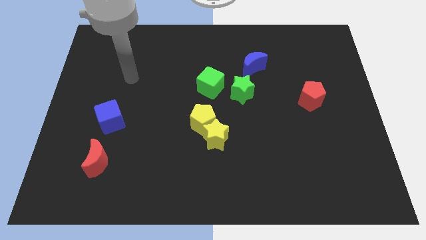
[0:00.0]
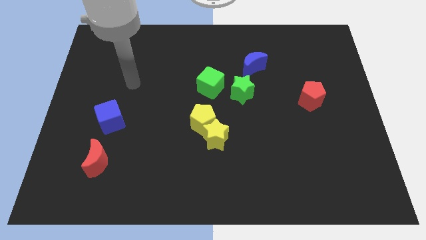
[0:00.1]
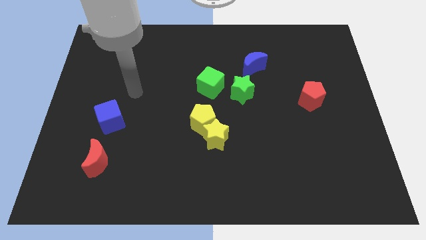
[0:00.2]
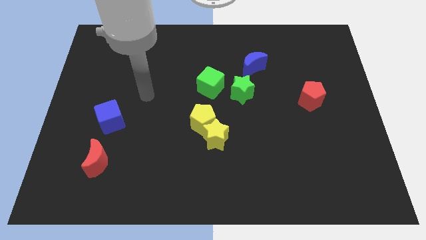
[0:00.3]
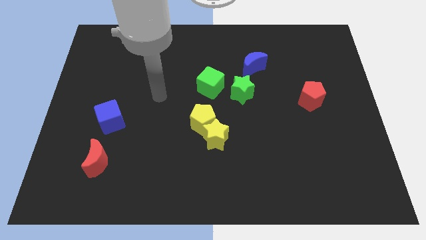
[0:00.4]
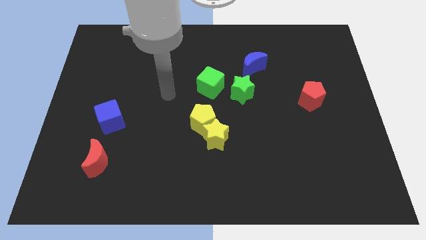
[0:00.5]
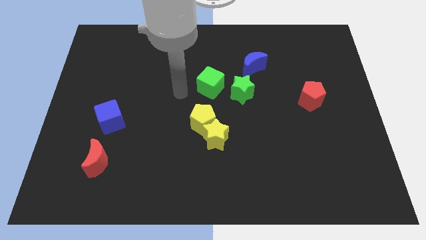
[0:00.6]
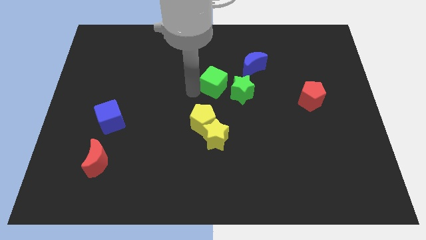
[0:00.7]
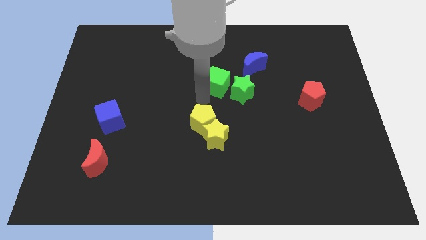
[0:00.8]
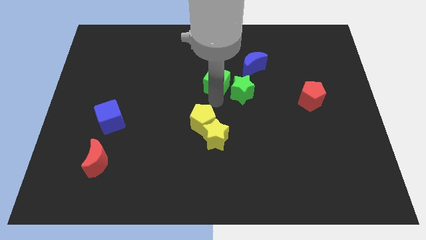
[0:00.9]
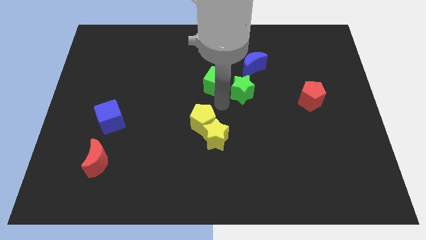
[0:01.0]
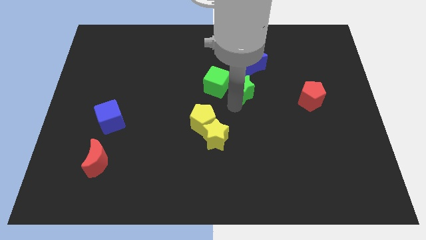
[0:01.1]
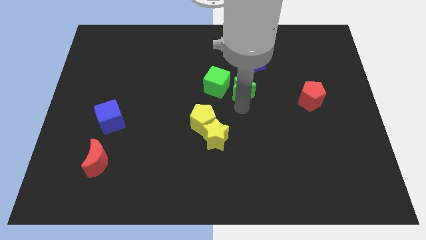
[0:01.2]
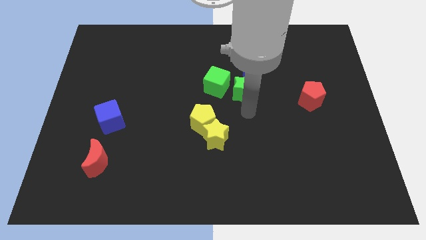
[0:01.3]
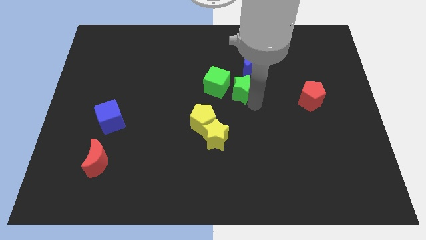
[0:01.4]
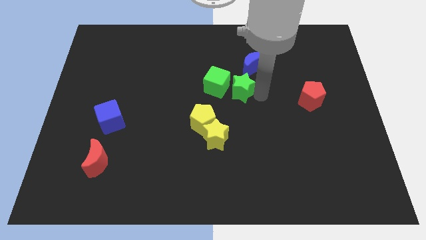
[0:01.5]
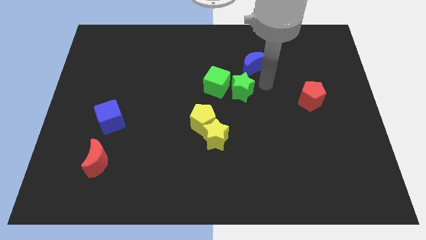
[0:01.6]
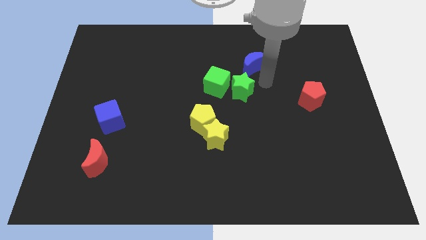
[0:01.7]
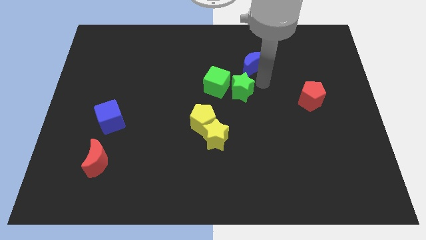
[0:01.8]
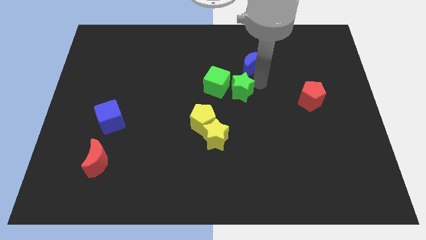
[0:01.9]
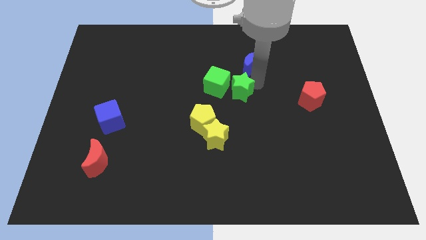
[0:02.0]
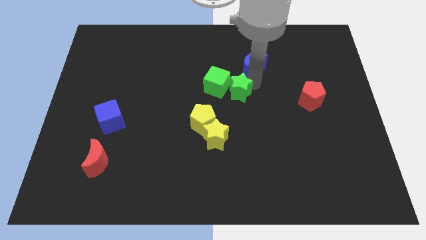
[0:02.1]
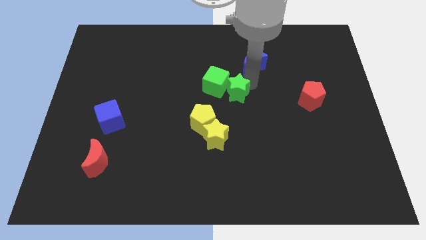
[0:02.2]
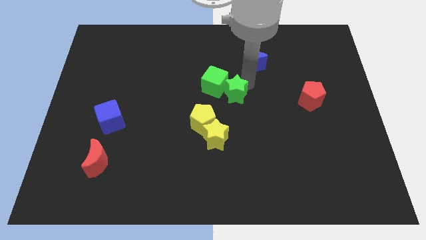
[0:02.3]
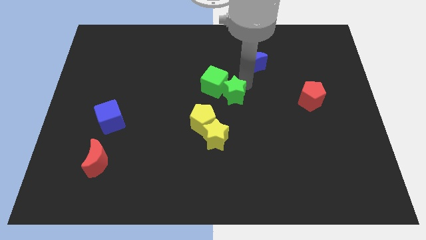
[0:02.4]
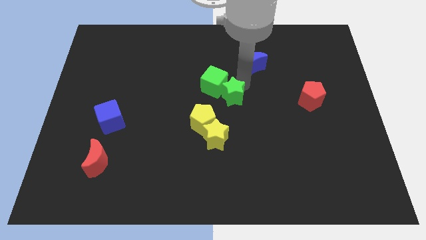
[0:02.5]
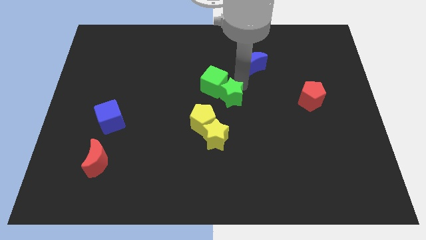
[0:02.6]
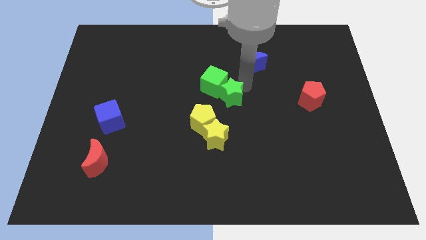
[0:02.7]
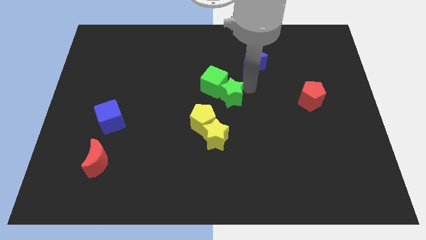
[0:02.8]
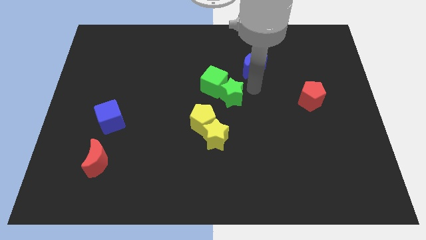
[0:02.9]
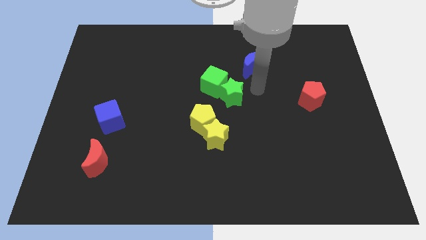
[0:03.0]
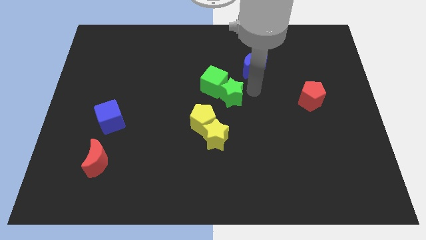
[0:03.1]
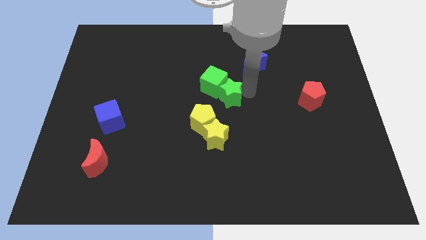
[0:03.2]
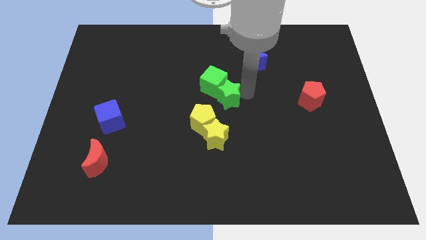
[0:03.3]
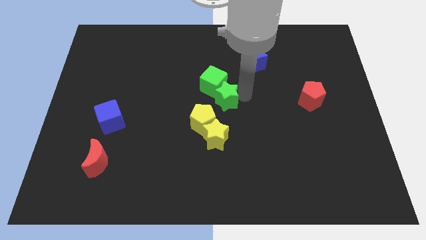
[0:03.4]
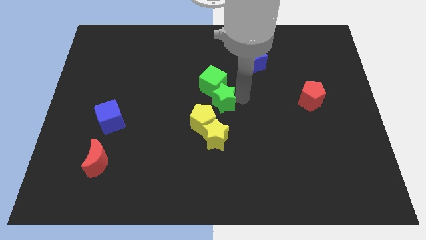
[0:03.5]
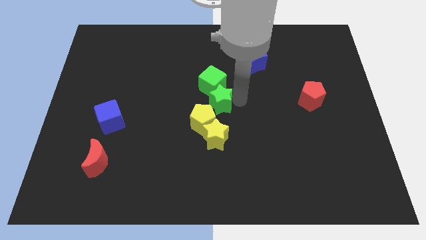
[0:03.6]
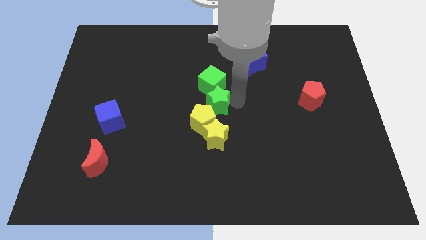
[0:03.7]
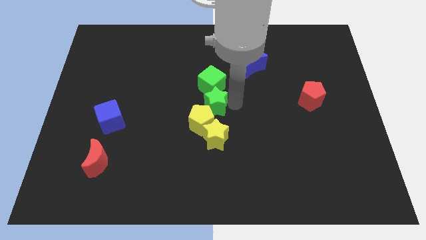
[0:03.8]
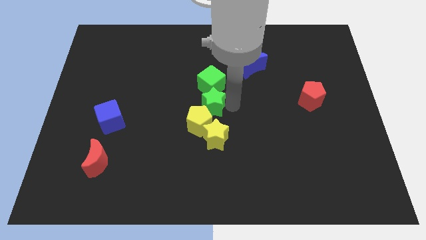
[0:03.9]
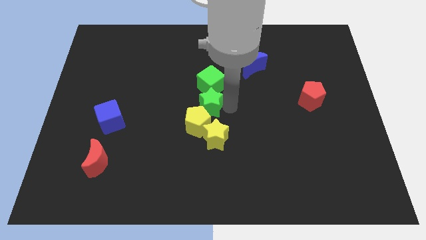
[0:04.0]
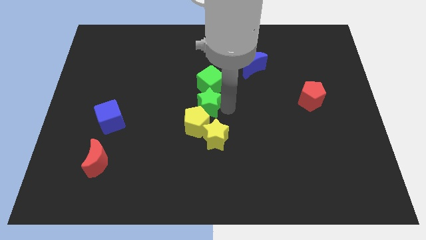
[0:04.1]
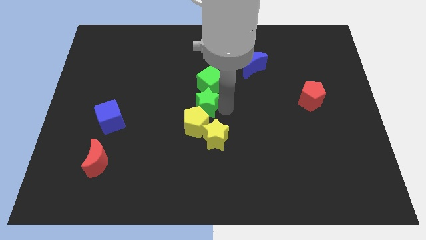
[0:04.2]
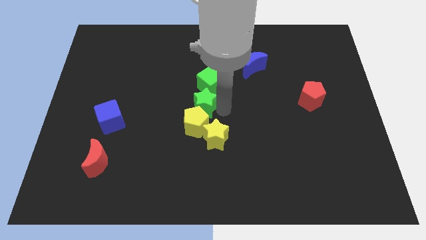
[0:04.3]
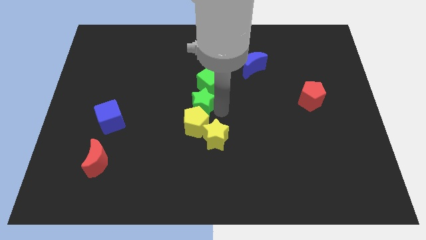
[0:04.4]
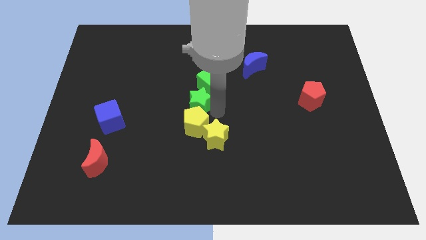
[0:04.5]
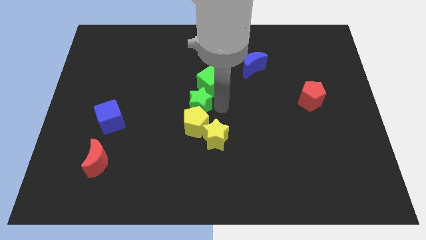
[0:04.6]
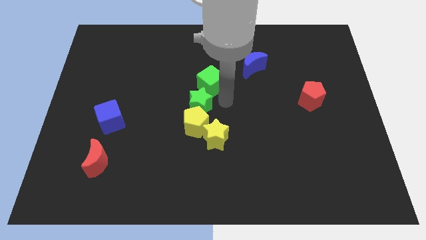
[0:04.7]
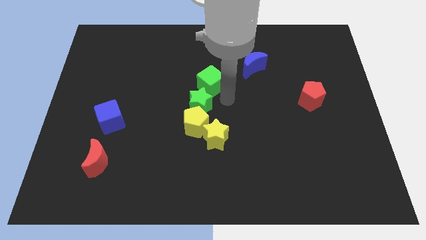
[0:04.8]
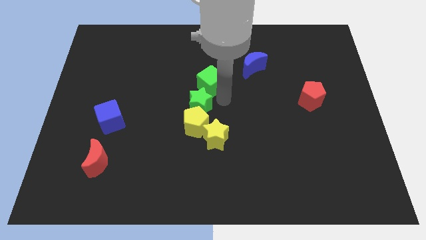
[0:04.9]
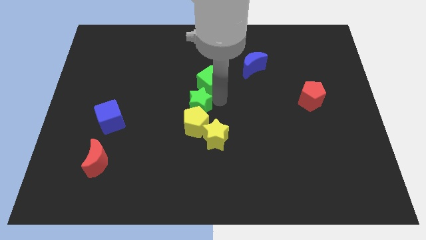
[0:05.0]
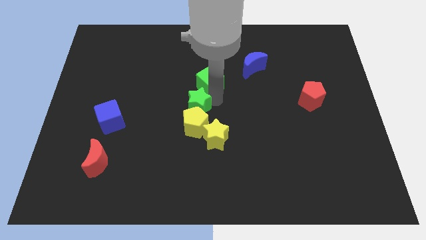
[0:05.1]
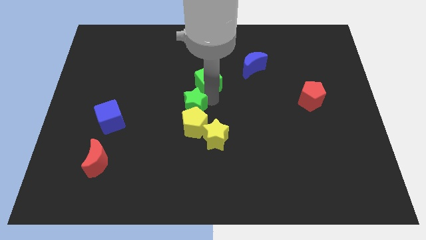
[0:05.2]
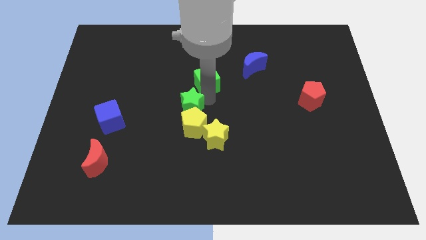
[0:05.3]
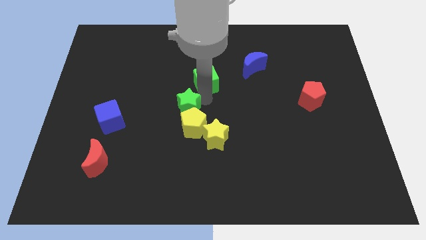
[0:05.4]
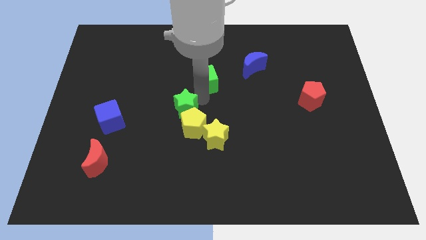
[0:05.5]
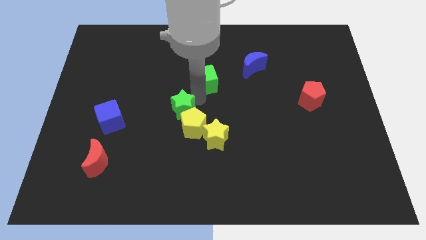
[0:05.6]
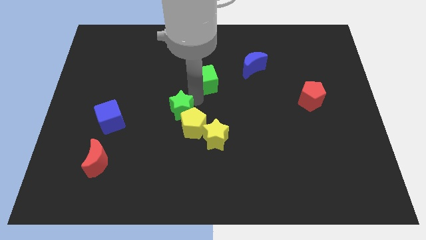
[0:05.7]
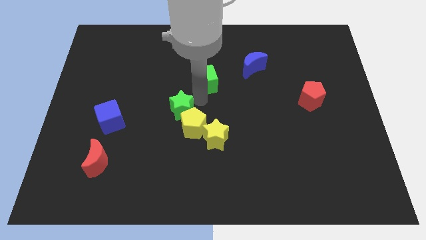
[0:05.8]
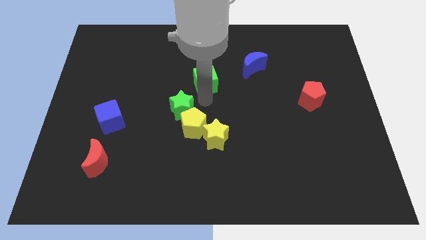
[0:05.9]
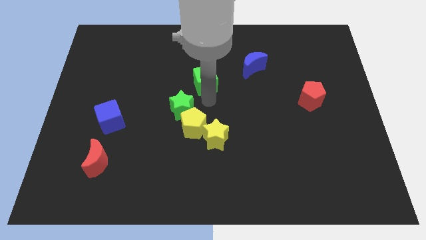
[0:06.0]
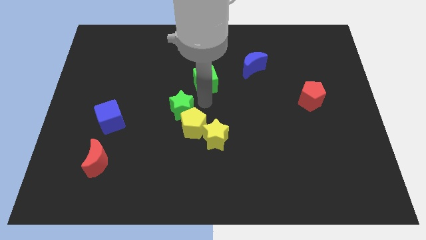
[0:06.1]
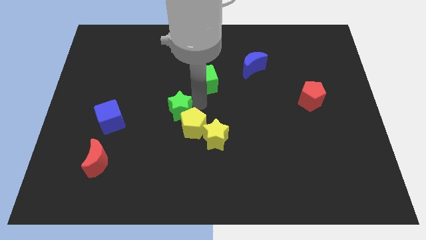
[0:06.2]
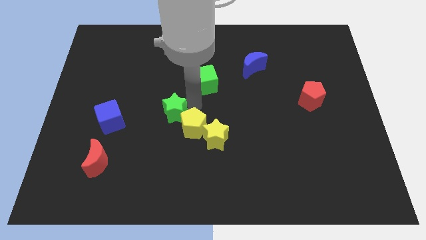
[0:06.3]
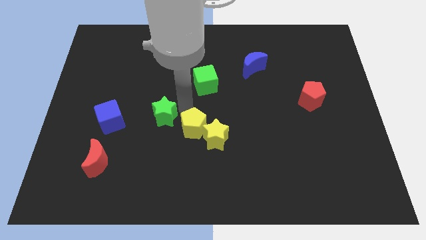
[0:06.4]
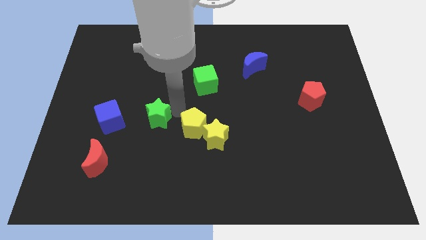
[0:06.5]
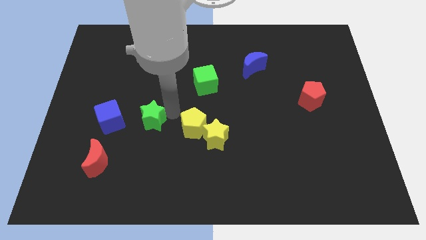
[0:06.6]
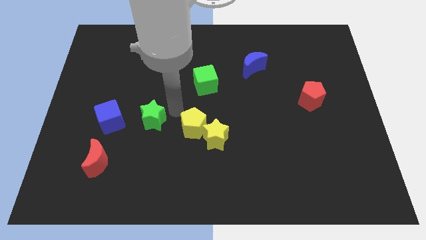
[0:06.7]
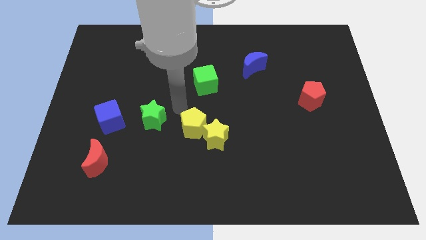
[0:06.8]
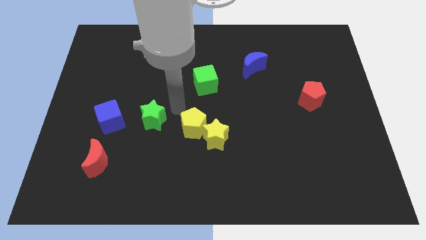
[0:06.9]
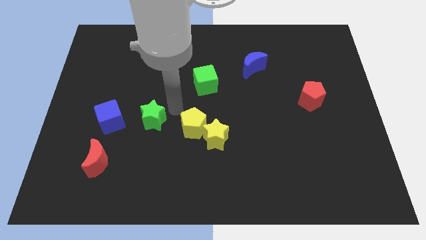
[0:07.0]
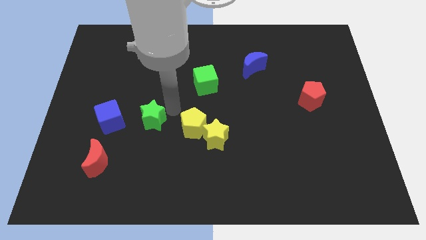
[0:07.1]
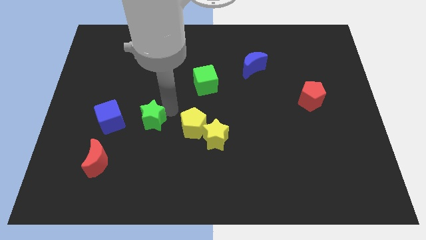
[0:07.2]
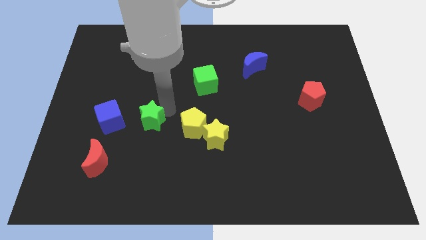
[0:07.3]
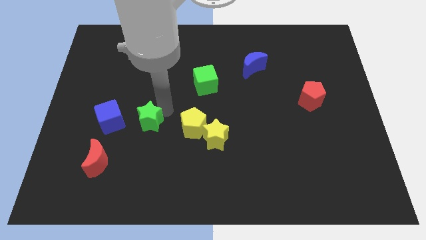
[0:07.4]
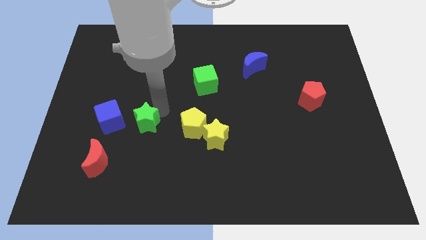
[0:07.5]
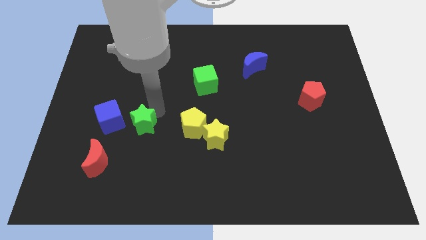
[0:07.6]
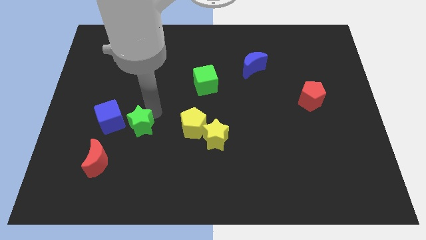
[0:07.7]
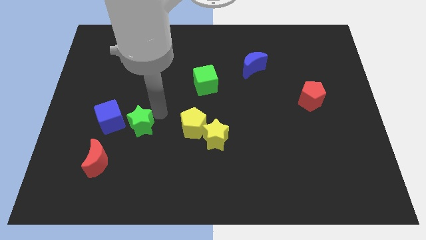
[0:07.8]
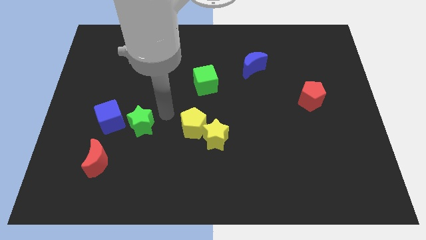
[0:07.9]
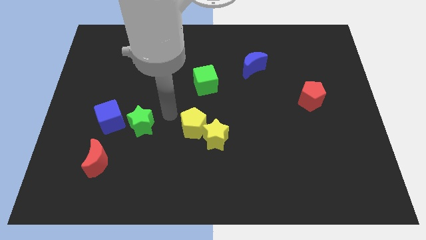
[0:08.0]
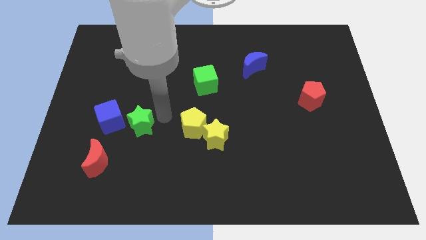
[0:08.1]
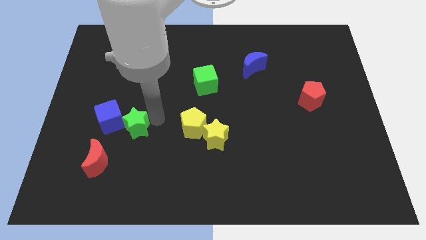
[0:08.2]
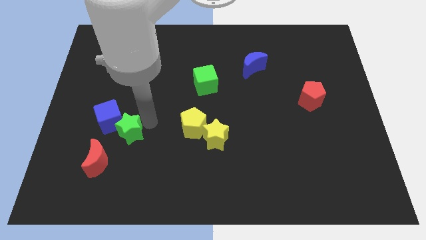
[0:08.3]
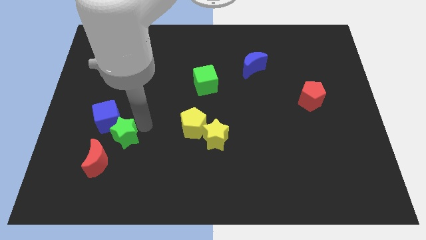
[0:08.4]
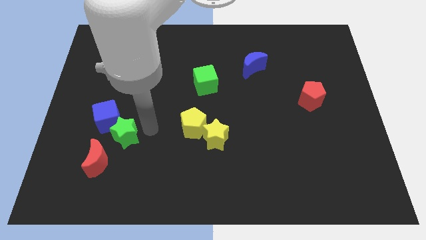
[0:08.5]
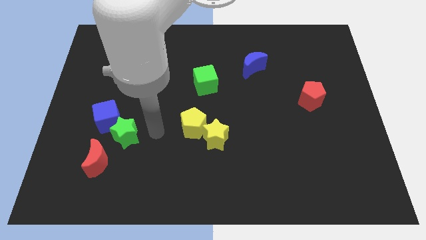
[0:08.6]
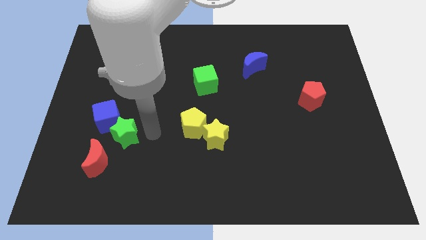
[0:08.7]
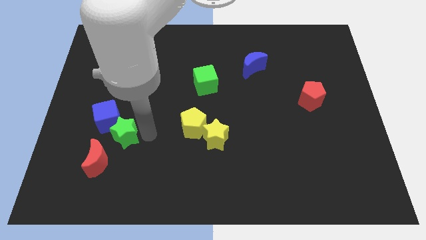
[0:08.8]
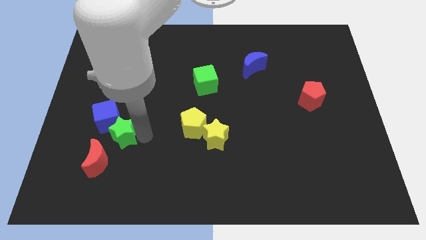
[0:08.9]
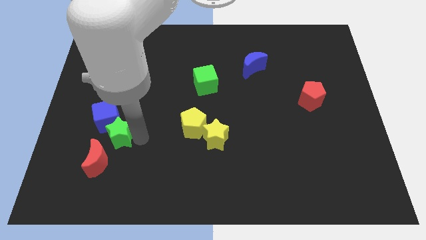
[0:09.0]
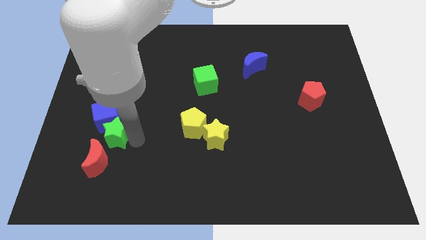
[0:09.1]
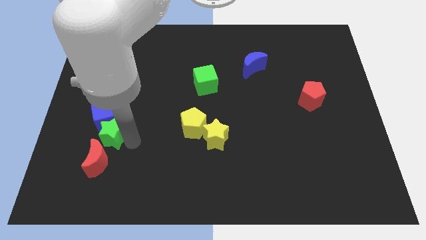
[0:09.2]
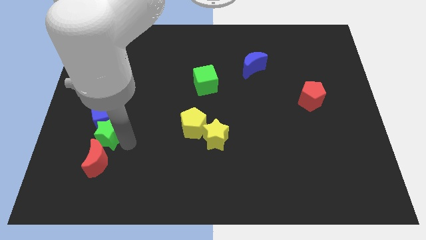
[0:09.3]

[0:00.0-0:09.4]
slide the green star diagonally down and to the left of the blue cube
